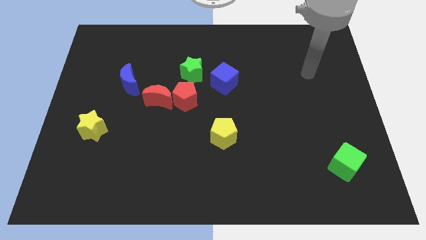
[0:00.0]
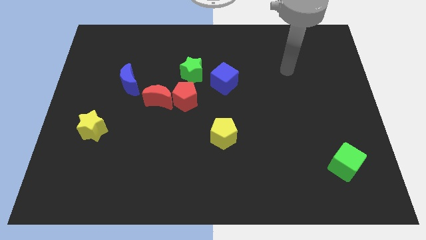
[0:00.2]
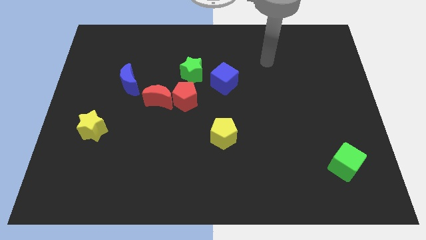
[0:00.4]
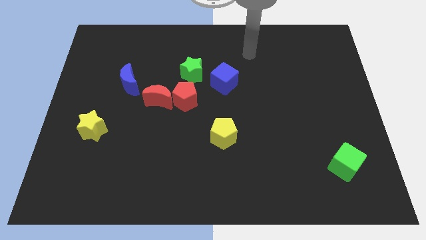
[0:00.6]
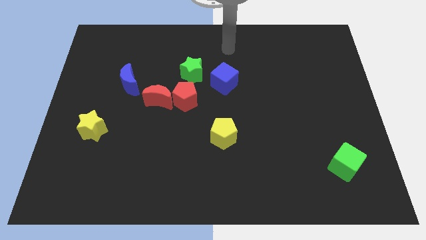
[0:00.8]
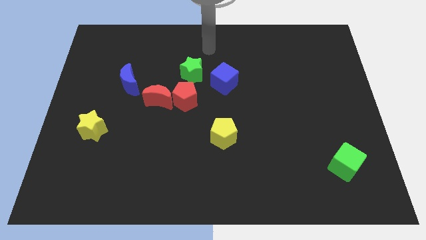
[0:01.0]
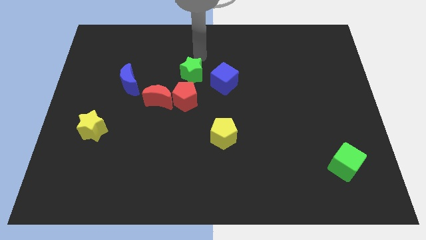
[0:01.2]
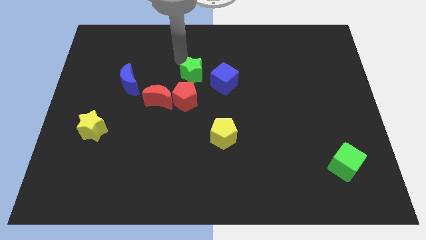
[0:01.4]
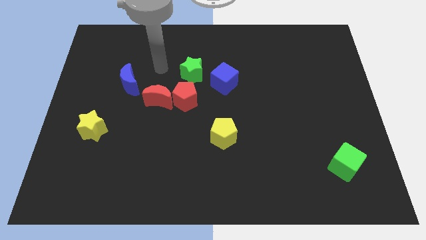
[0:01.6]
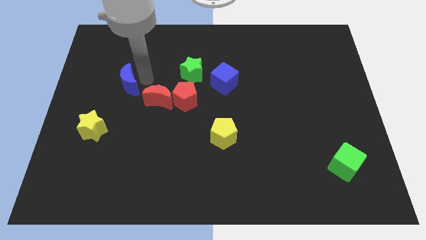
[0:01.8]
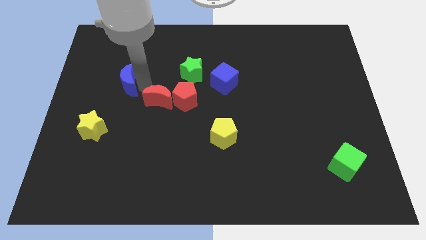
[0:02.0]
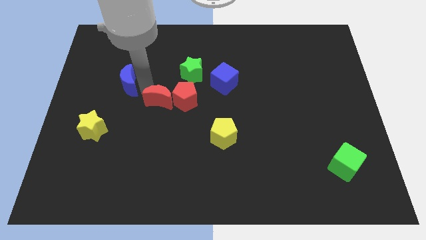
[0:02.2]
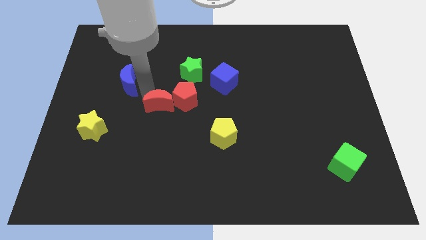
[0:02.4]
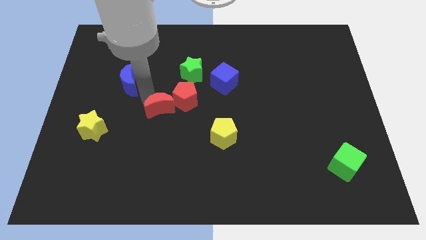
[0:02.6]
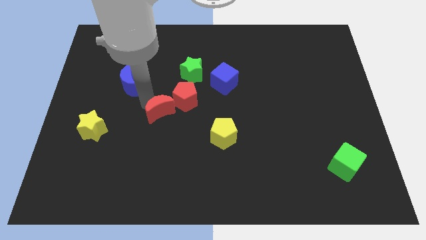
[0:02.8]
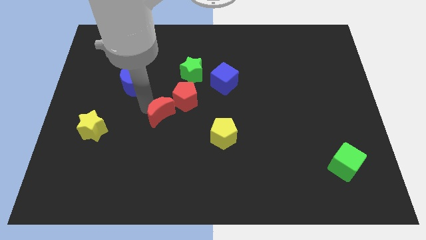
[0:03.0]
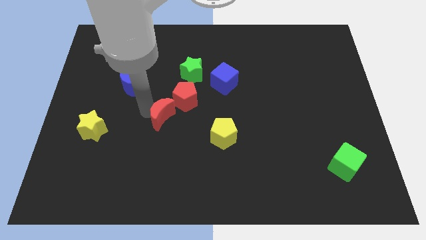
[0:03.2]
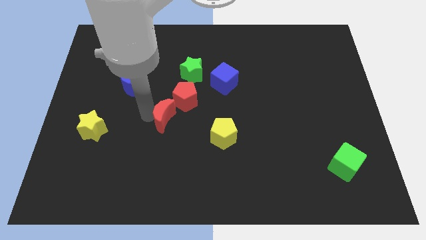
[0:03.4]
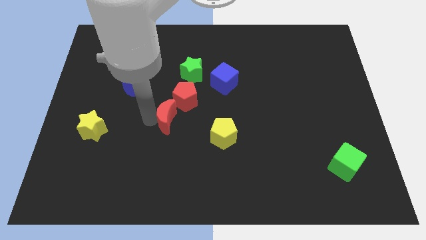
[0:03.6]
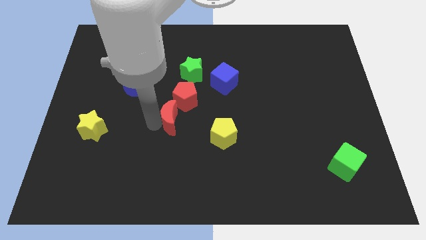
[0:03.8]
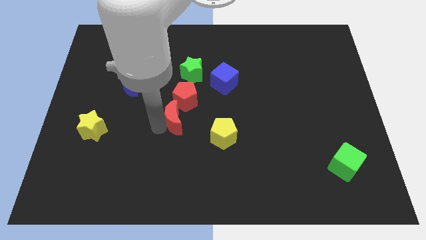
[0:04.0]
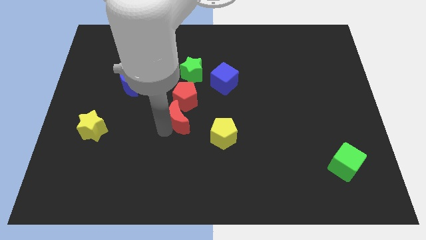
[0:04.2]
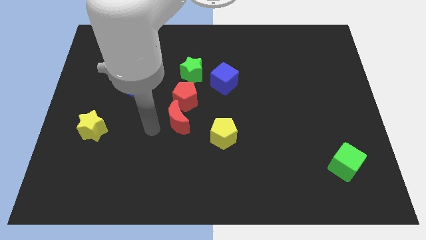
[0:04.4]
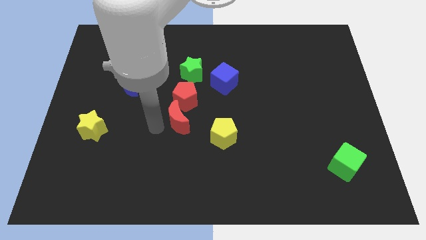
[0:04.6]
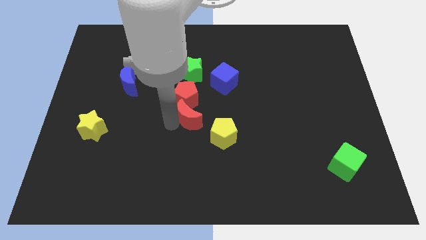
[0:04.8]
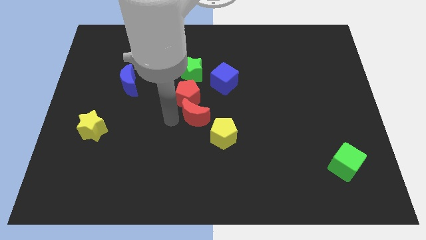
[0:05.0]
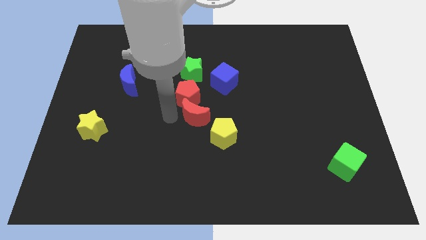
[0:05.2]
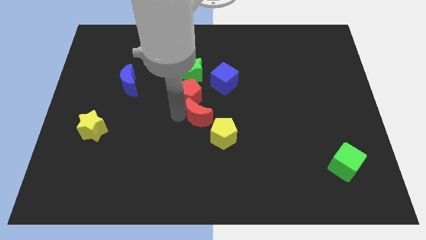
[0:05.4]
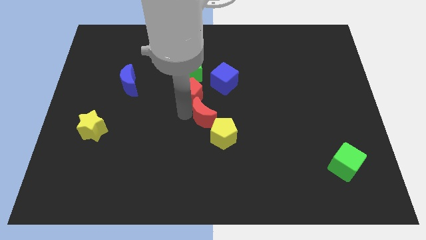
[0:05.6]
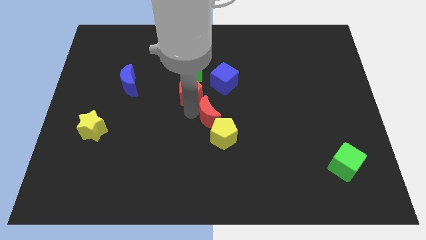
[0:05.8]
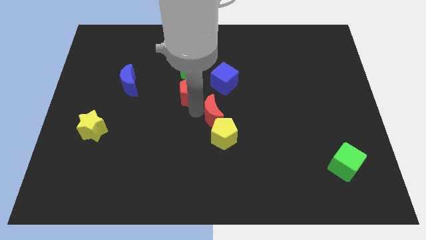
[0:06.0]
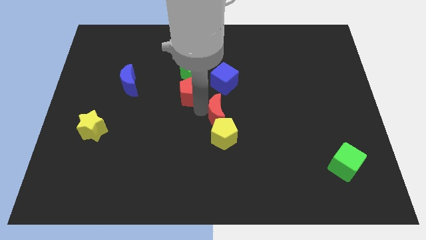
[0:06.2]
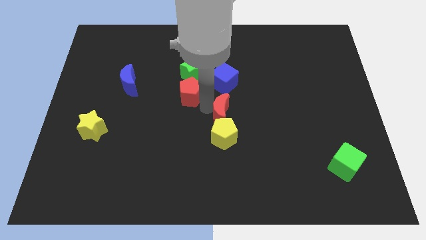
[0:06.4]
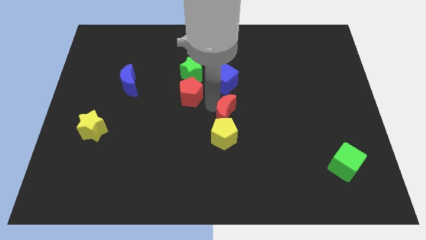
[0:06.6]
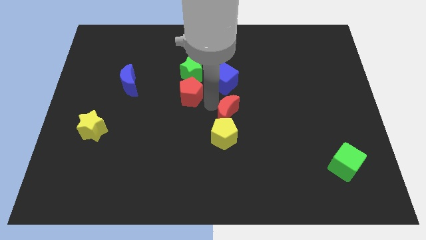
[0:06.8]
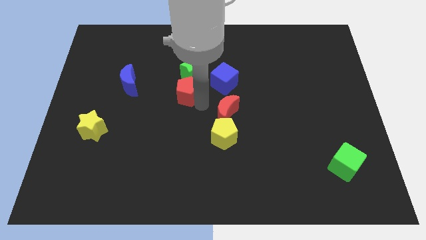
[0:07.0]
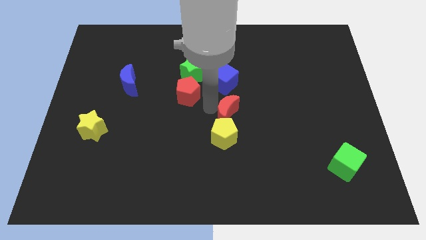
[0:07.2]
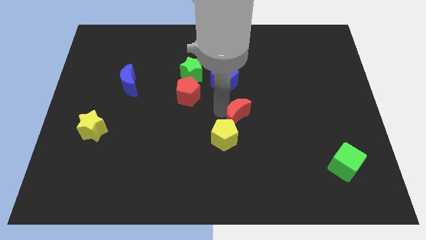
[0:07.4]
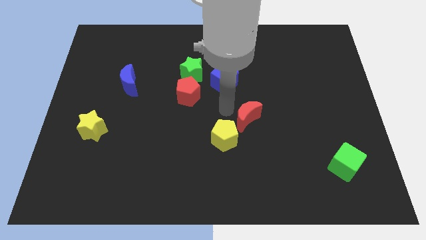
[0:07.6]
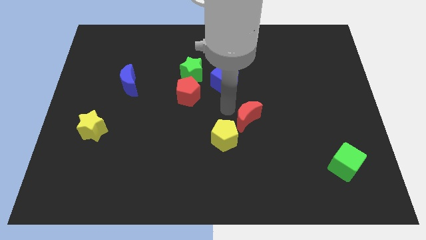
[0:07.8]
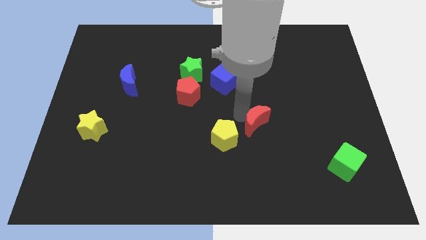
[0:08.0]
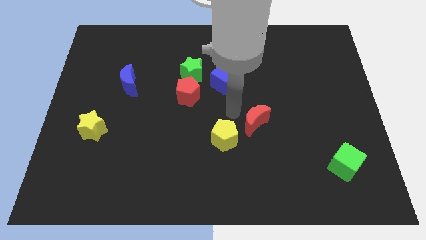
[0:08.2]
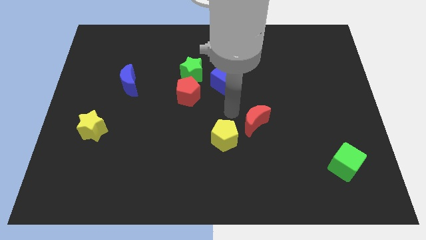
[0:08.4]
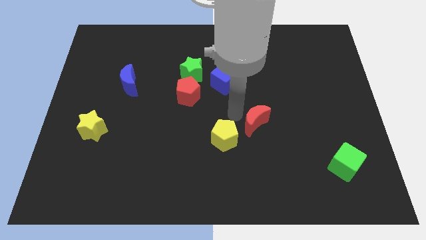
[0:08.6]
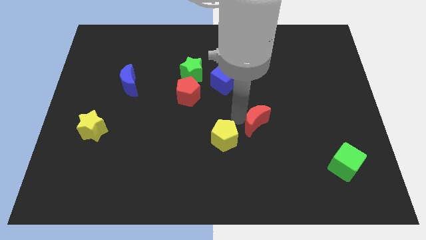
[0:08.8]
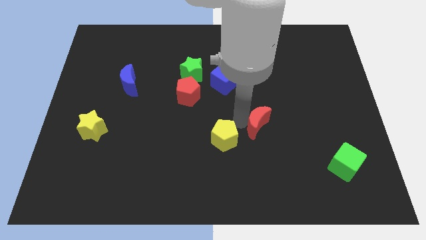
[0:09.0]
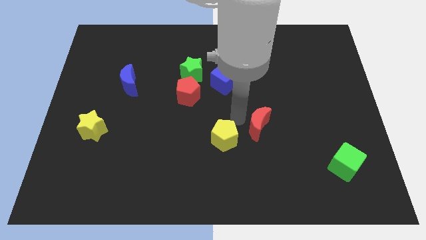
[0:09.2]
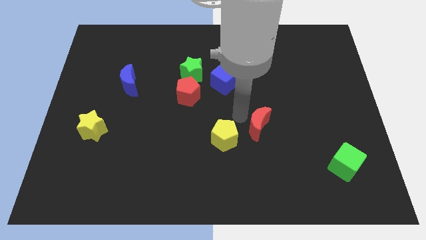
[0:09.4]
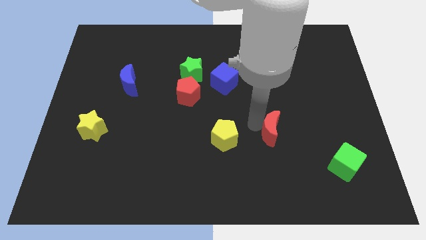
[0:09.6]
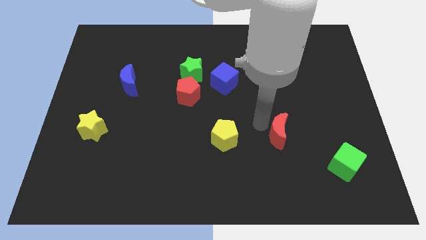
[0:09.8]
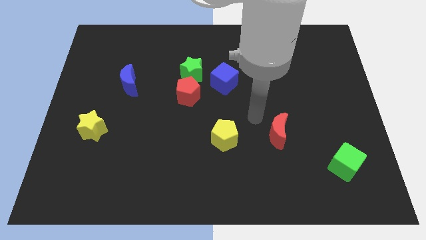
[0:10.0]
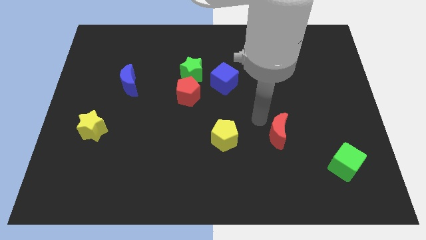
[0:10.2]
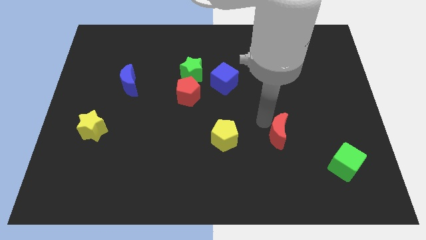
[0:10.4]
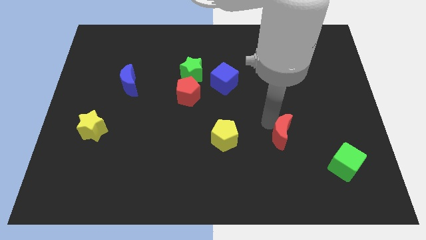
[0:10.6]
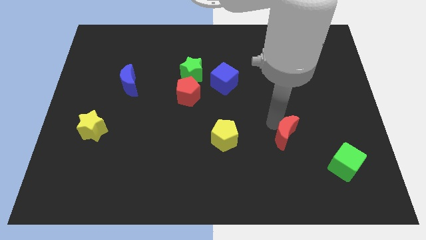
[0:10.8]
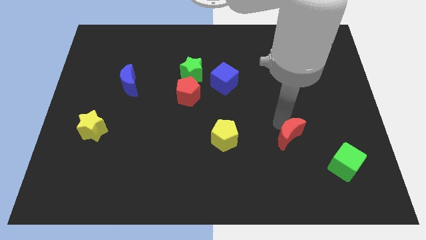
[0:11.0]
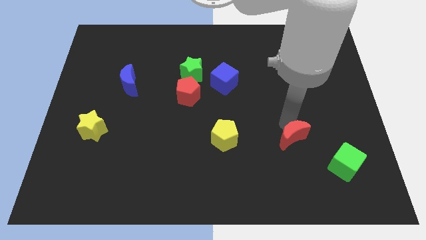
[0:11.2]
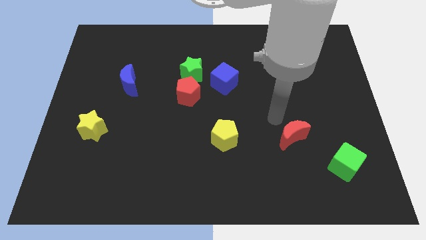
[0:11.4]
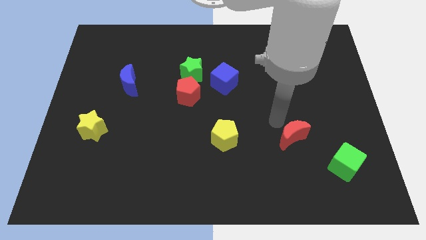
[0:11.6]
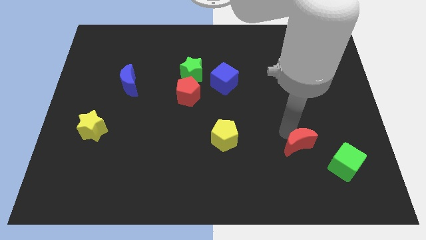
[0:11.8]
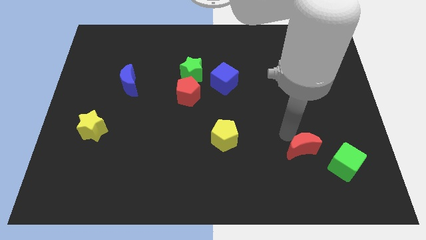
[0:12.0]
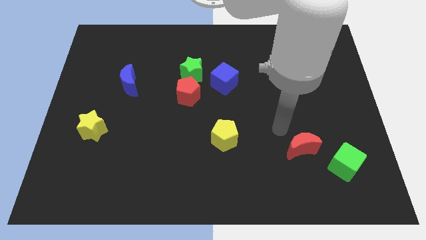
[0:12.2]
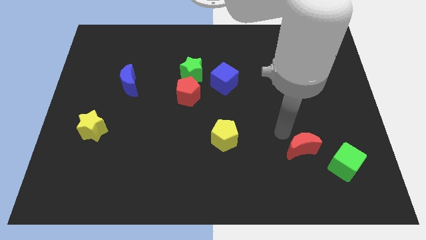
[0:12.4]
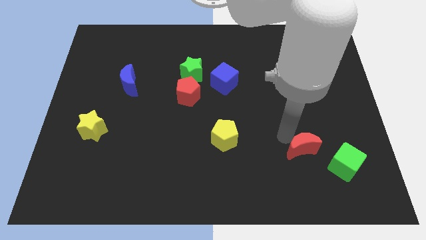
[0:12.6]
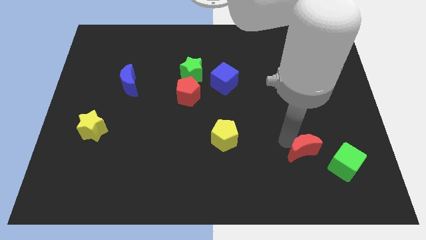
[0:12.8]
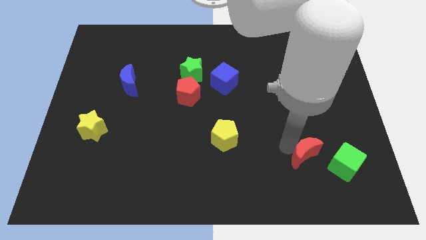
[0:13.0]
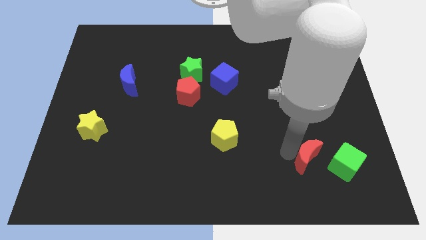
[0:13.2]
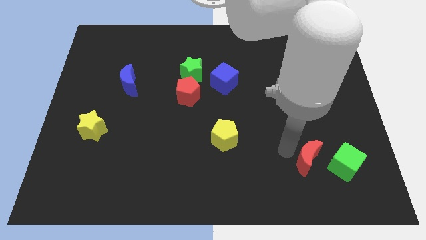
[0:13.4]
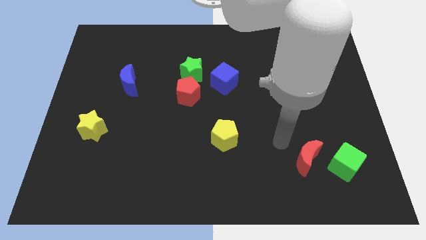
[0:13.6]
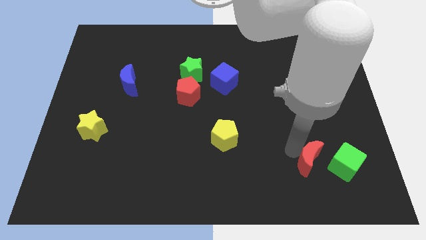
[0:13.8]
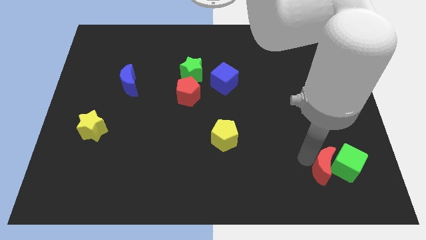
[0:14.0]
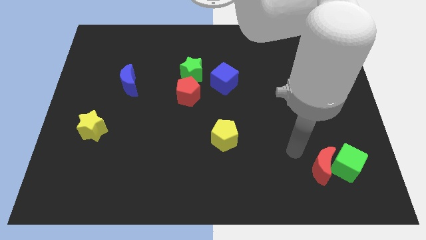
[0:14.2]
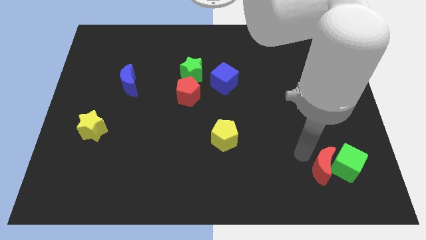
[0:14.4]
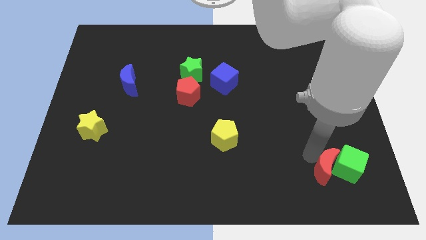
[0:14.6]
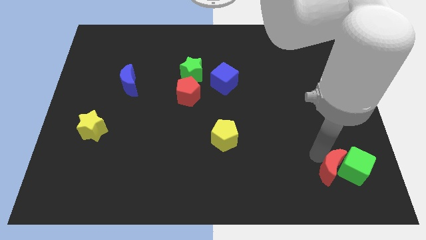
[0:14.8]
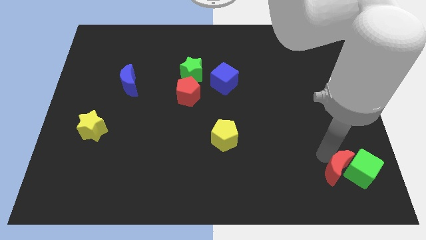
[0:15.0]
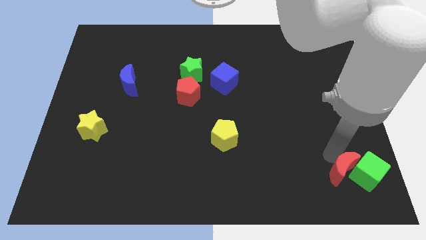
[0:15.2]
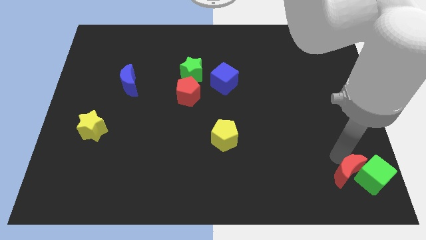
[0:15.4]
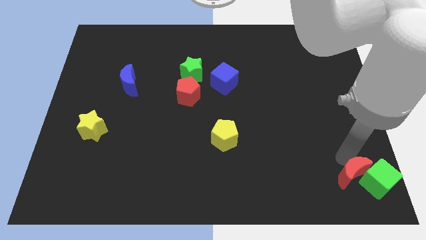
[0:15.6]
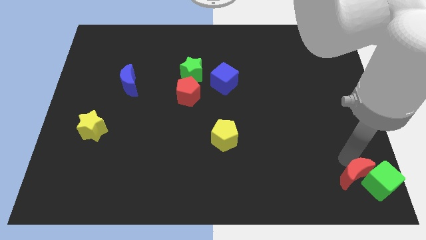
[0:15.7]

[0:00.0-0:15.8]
push the red moon to the bottom right corner

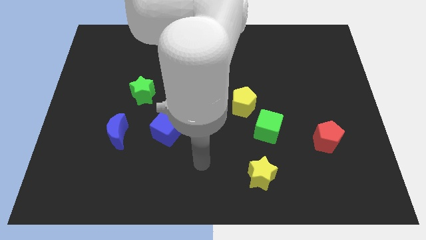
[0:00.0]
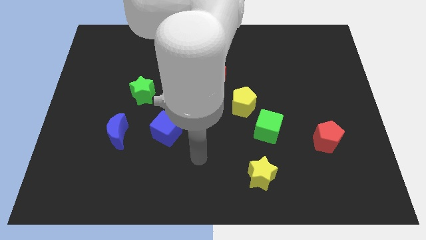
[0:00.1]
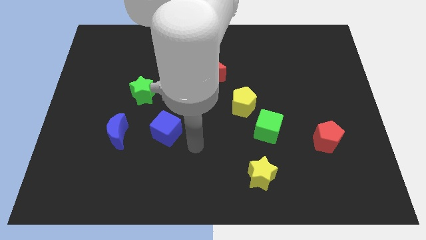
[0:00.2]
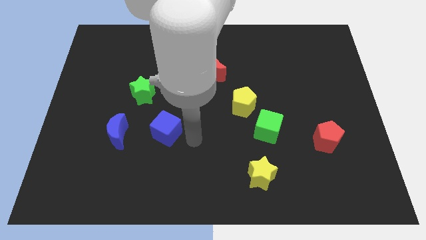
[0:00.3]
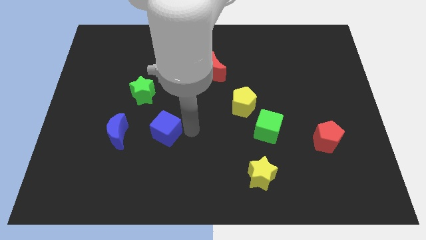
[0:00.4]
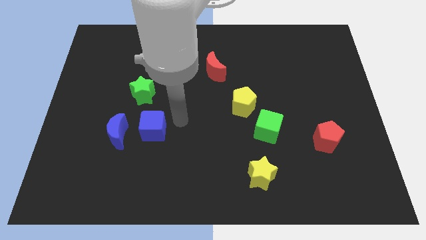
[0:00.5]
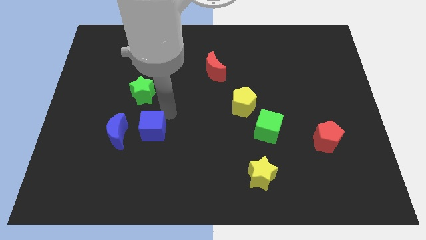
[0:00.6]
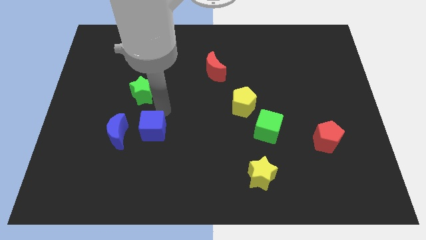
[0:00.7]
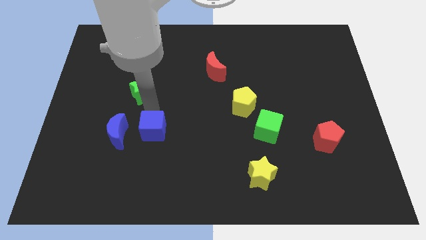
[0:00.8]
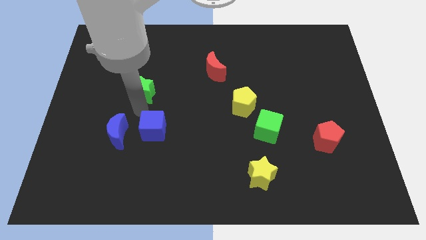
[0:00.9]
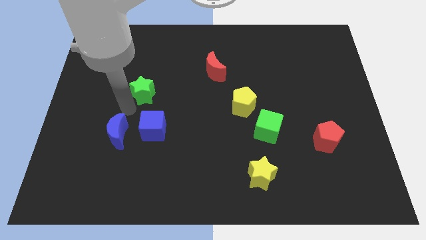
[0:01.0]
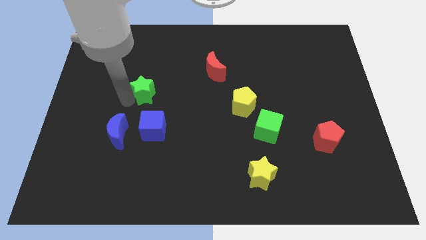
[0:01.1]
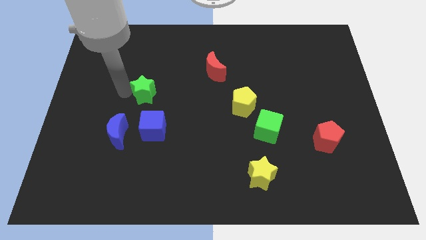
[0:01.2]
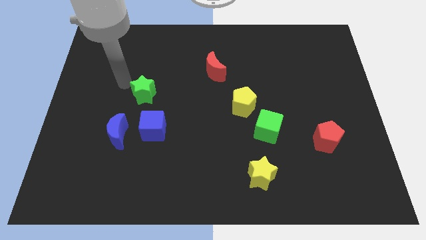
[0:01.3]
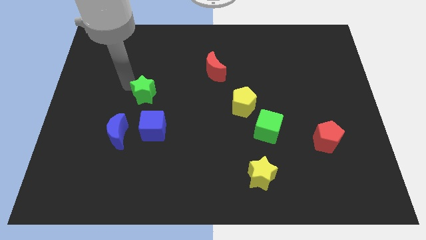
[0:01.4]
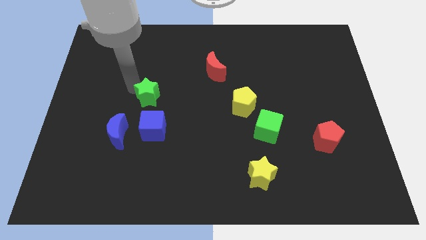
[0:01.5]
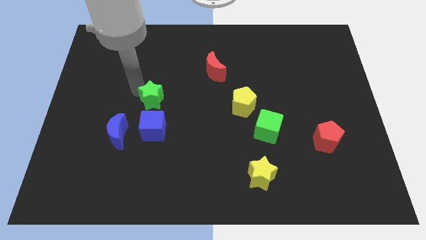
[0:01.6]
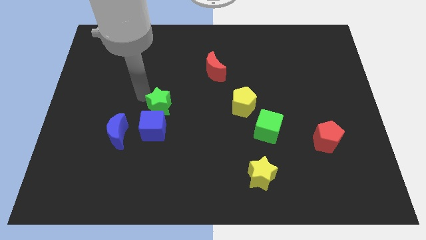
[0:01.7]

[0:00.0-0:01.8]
move the green star to the center of the board
